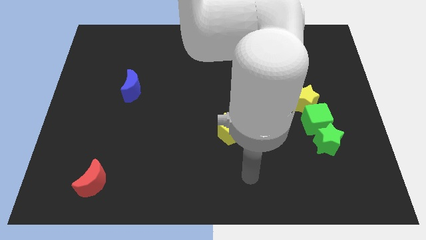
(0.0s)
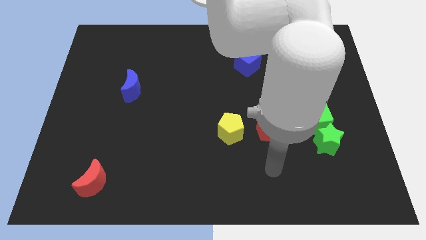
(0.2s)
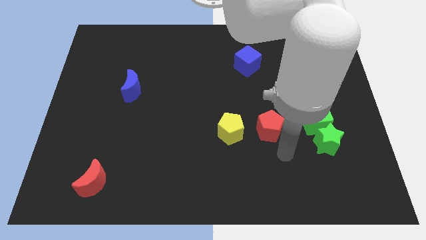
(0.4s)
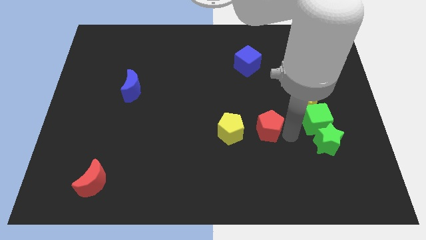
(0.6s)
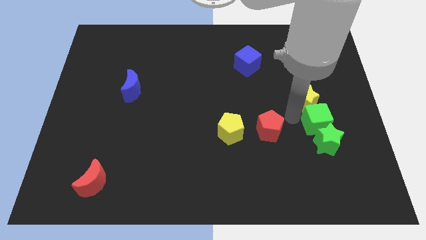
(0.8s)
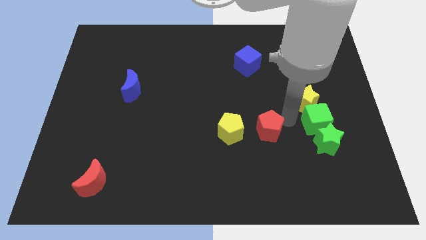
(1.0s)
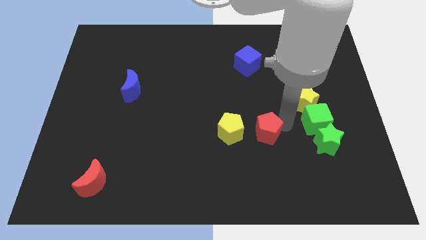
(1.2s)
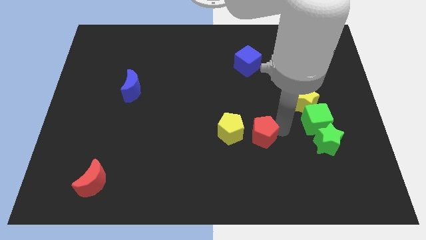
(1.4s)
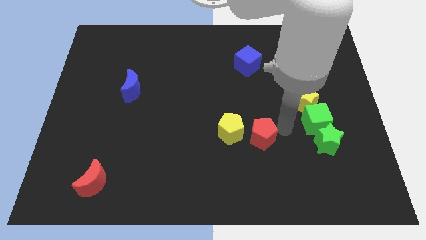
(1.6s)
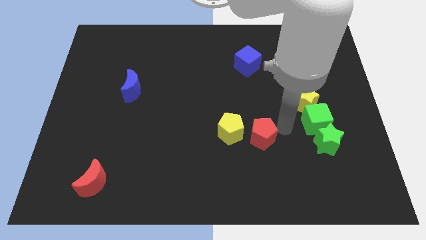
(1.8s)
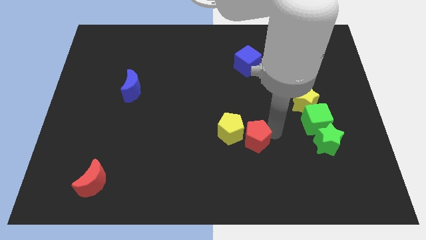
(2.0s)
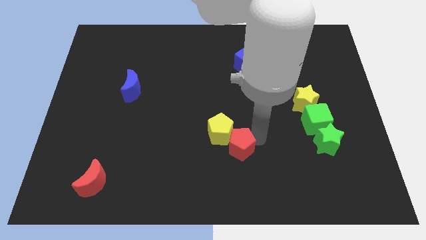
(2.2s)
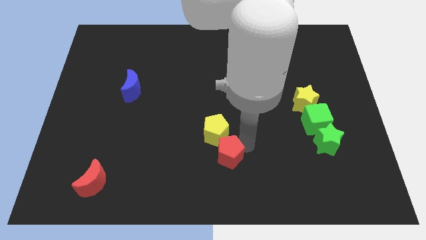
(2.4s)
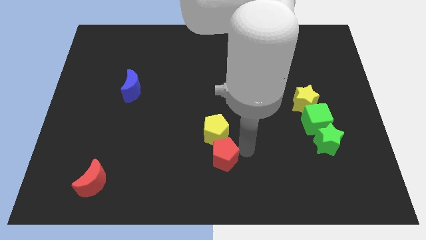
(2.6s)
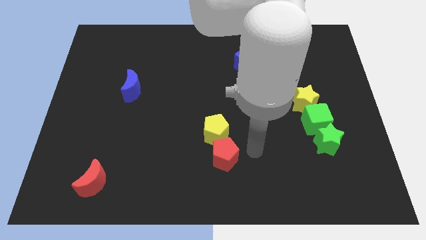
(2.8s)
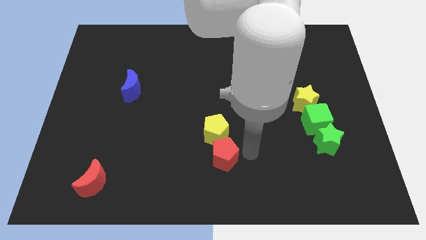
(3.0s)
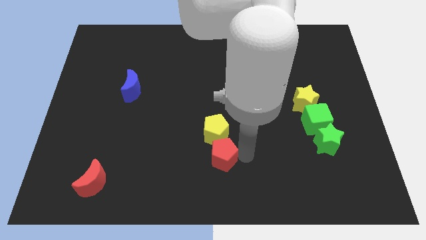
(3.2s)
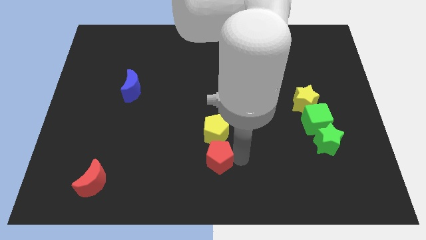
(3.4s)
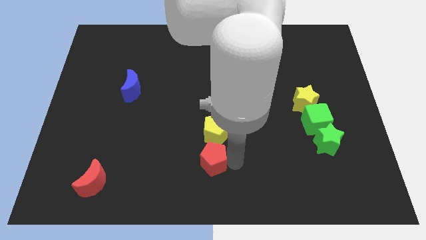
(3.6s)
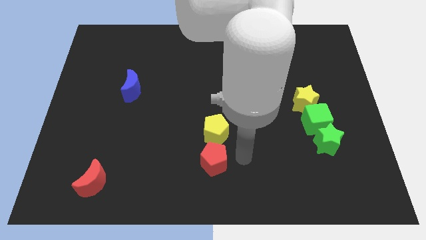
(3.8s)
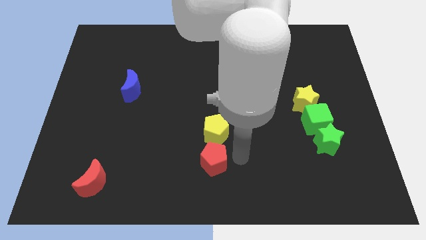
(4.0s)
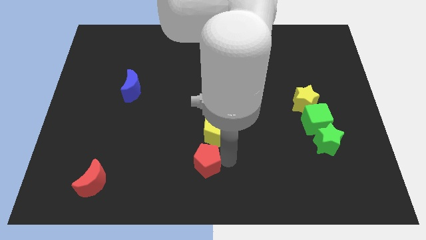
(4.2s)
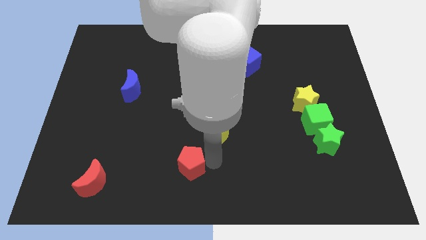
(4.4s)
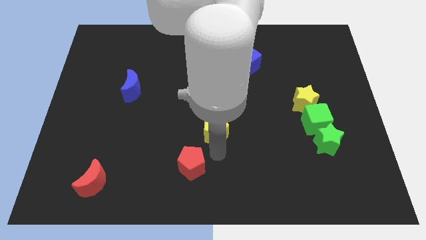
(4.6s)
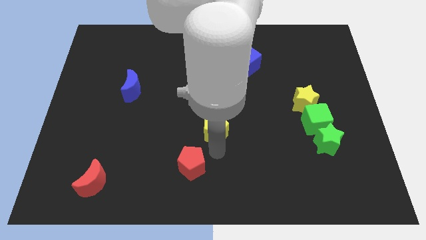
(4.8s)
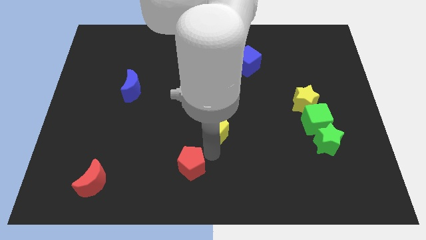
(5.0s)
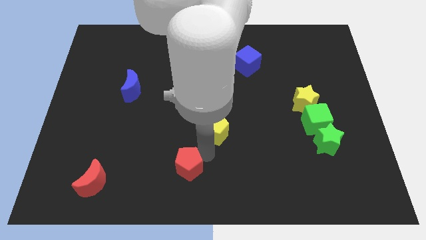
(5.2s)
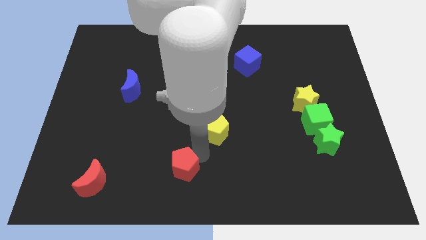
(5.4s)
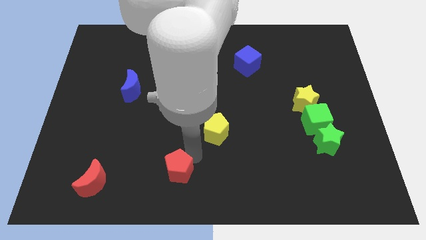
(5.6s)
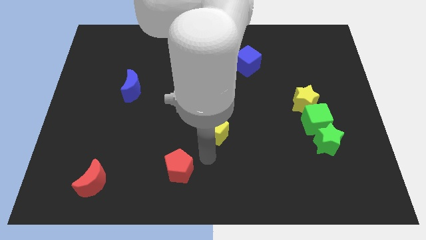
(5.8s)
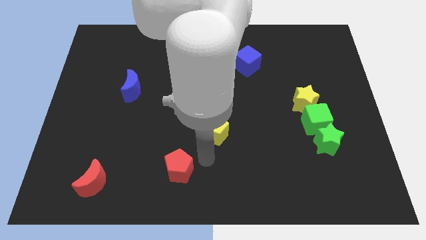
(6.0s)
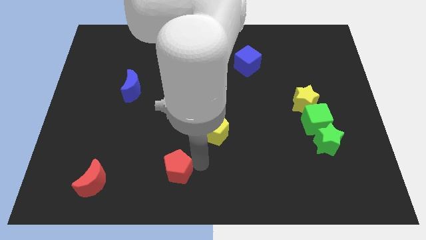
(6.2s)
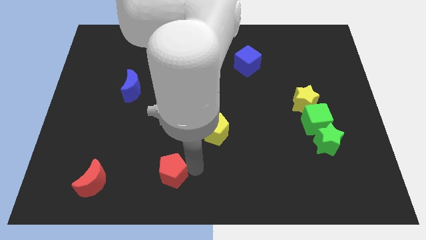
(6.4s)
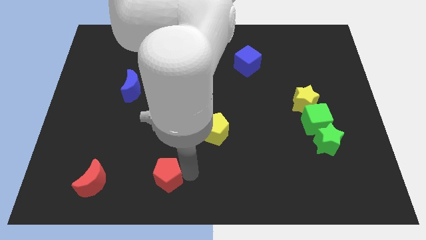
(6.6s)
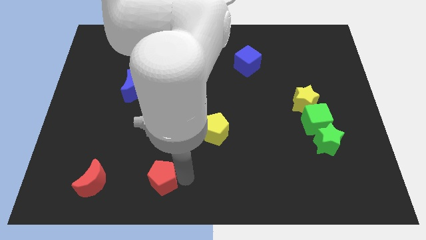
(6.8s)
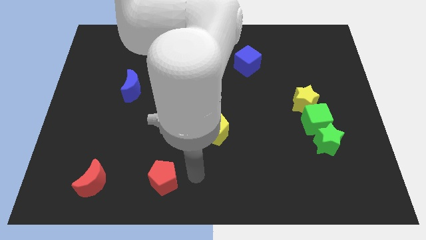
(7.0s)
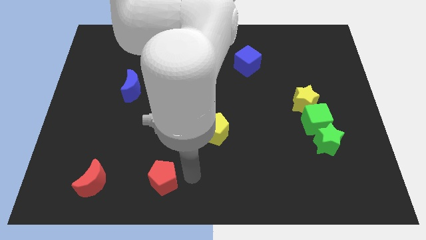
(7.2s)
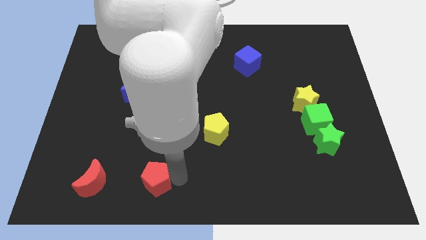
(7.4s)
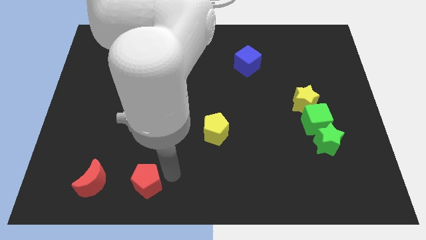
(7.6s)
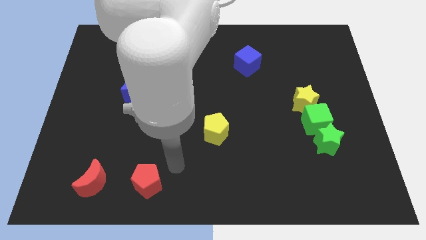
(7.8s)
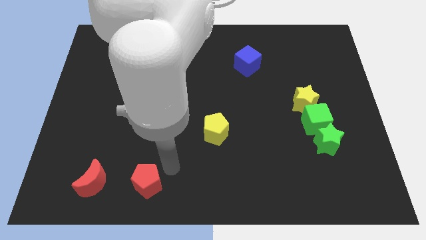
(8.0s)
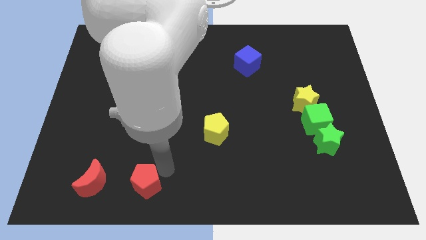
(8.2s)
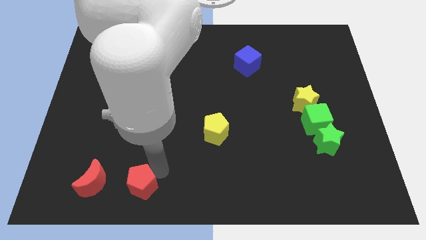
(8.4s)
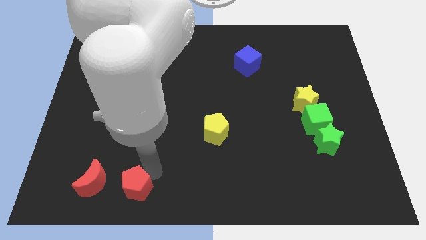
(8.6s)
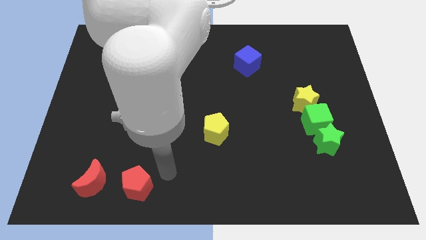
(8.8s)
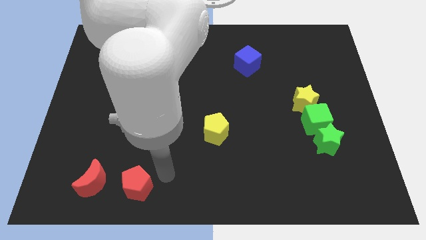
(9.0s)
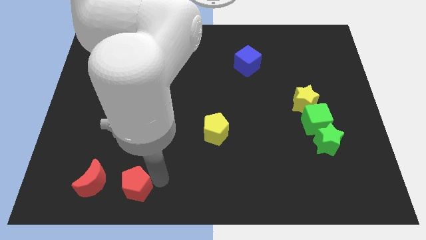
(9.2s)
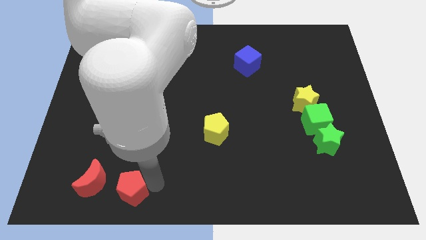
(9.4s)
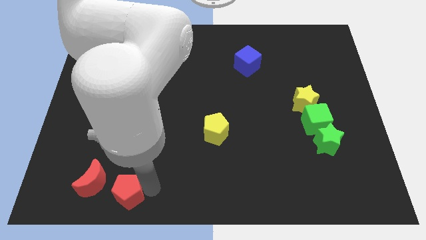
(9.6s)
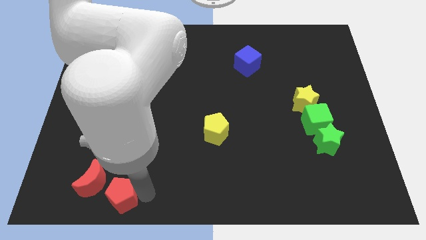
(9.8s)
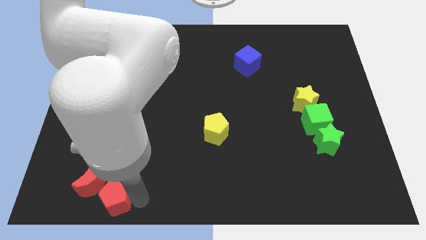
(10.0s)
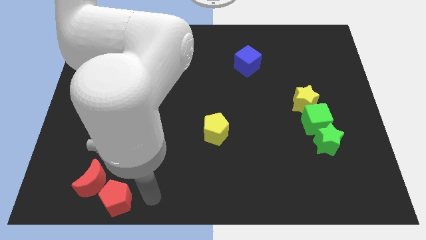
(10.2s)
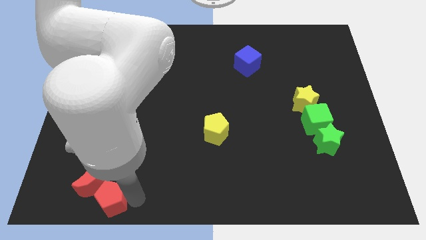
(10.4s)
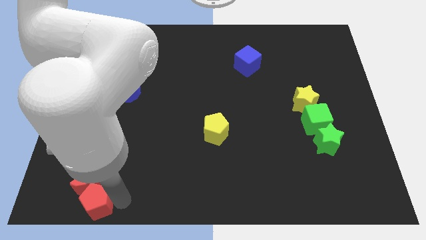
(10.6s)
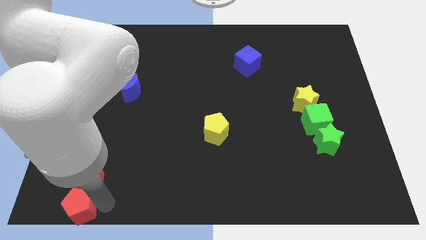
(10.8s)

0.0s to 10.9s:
move the red pentagon to the lower left corner

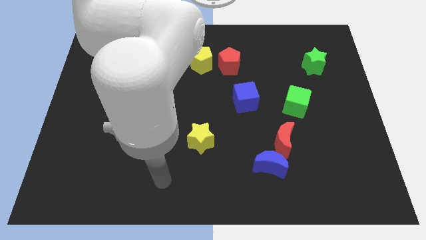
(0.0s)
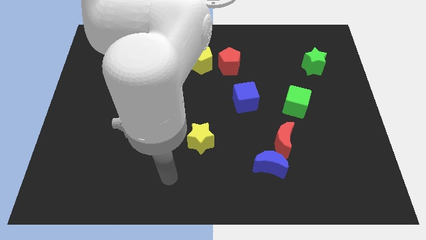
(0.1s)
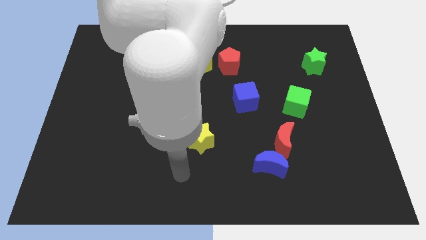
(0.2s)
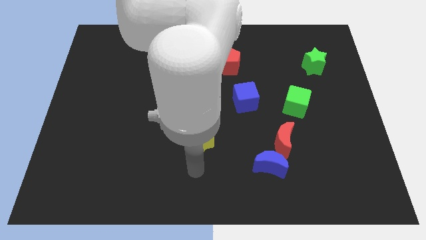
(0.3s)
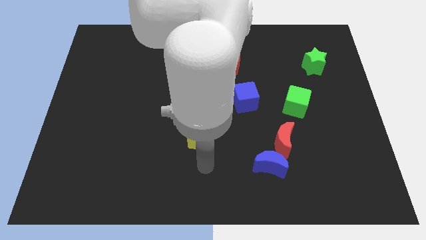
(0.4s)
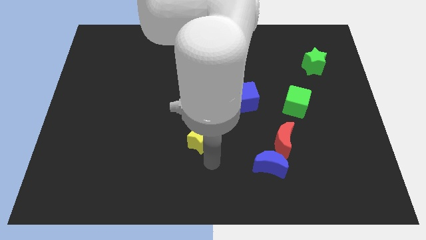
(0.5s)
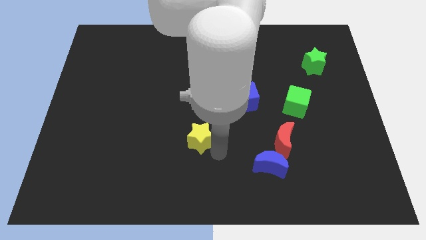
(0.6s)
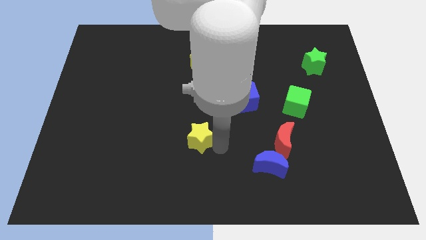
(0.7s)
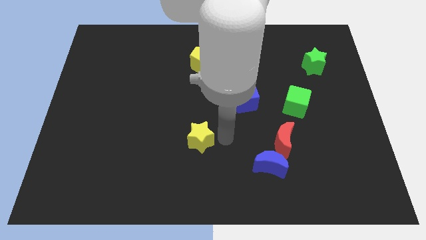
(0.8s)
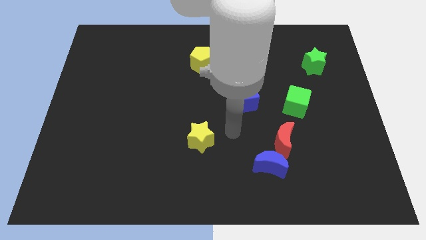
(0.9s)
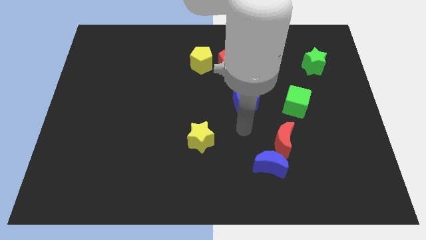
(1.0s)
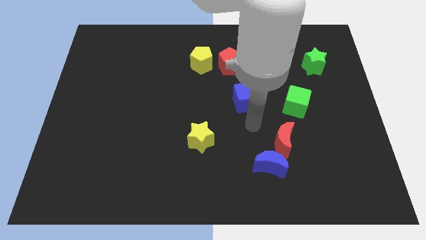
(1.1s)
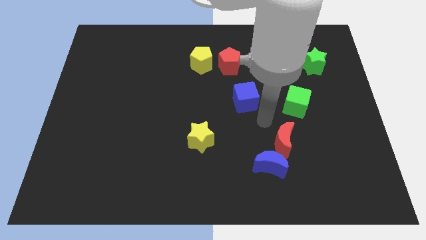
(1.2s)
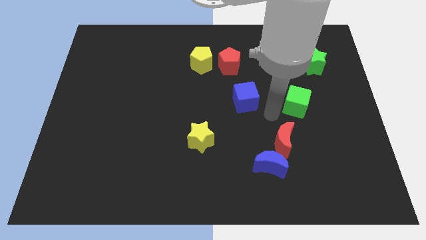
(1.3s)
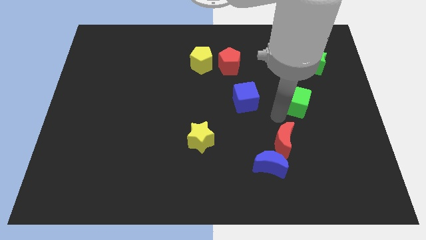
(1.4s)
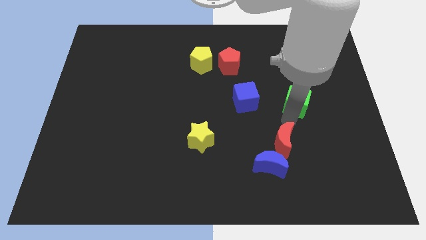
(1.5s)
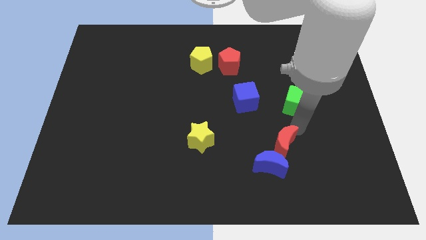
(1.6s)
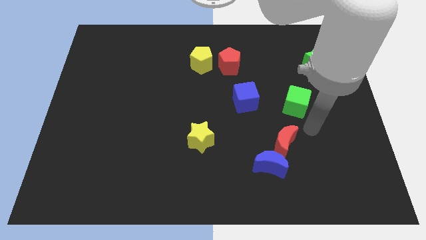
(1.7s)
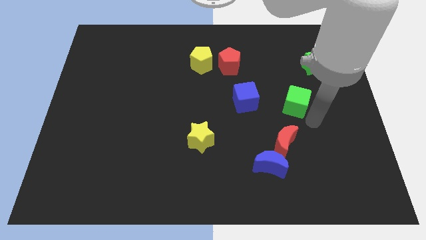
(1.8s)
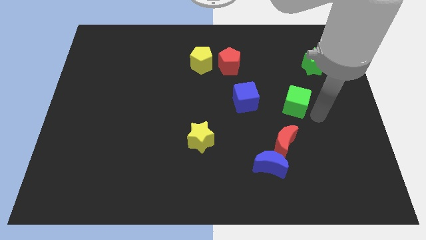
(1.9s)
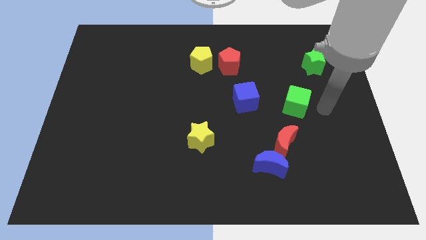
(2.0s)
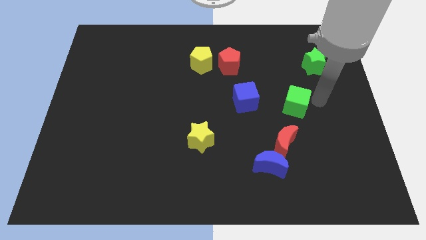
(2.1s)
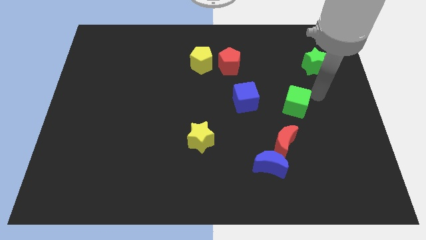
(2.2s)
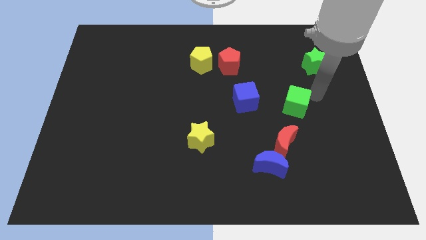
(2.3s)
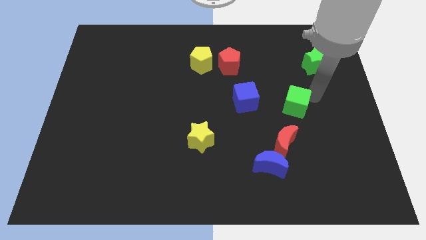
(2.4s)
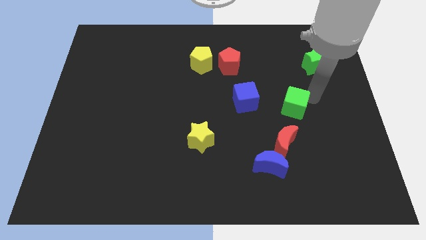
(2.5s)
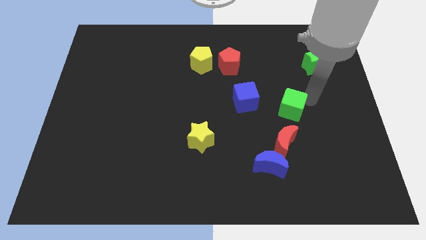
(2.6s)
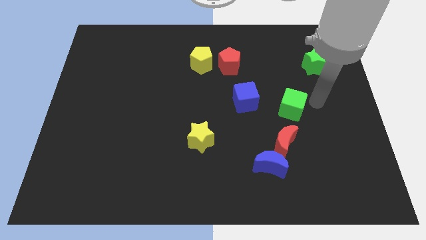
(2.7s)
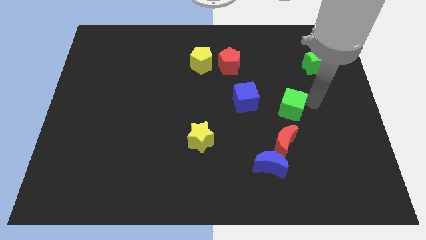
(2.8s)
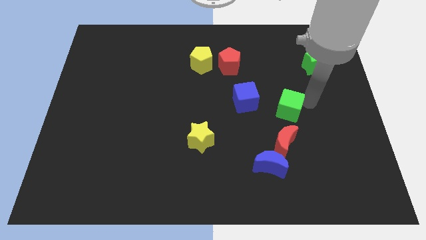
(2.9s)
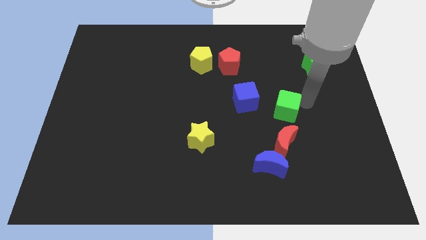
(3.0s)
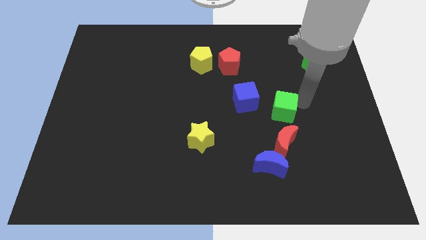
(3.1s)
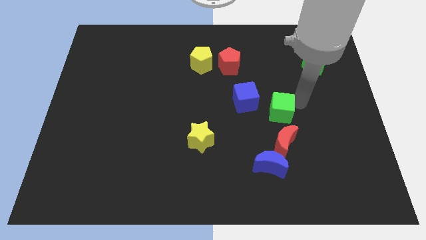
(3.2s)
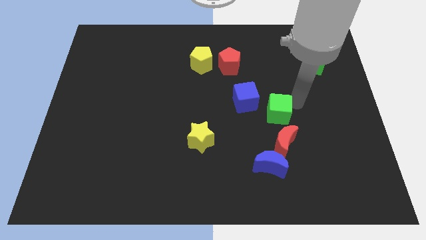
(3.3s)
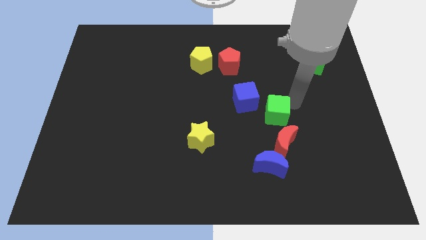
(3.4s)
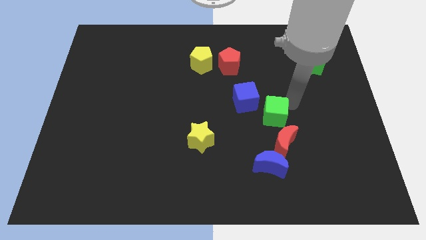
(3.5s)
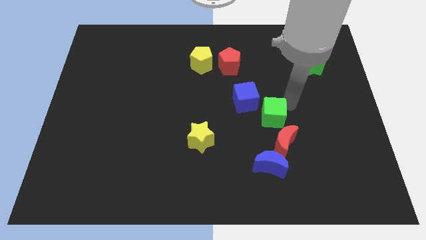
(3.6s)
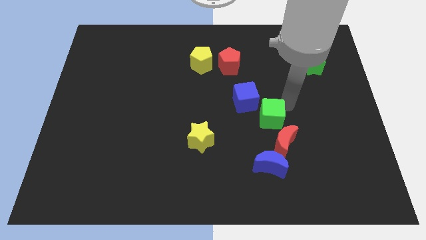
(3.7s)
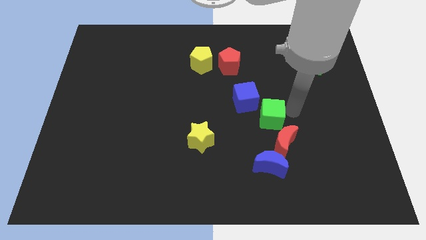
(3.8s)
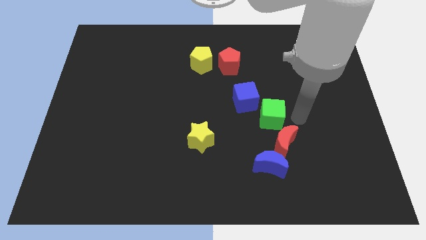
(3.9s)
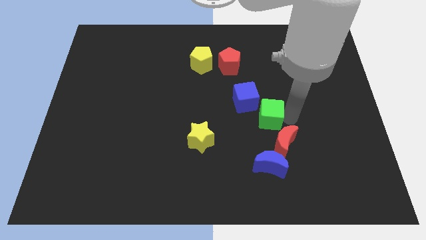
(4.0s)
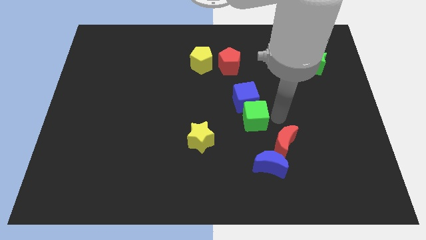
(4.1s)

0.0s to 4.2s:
push the green cube to the middle of the board
